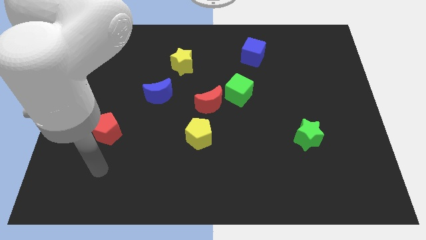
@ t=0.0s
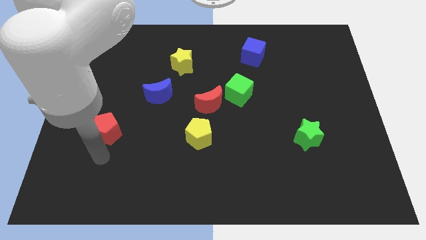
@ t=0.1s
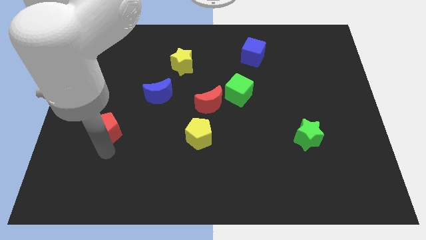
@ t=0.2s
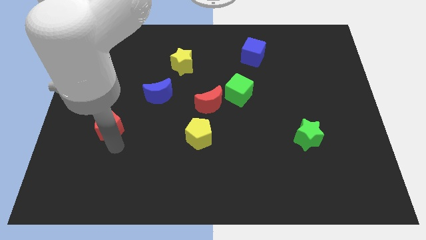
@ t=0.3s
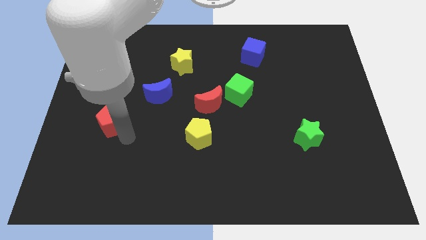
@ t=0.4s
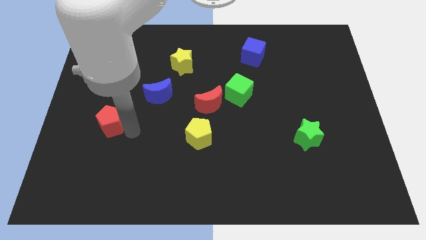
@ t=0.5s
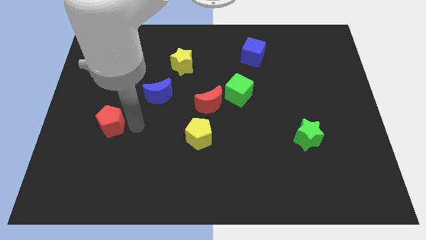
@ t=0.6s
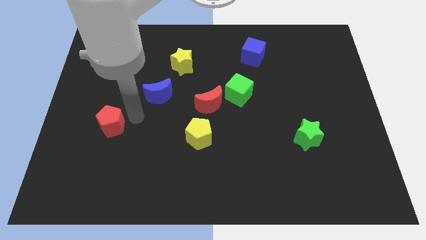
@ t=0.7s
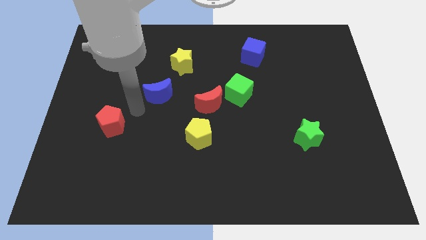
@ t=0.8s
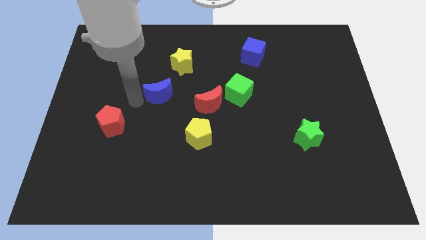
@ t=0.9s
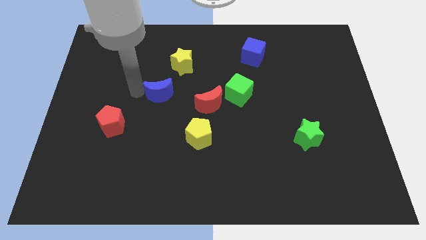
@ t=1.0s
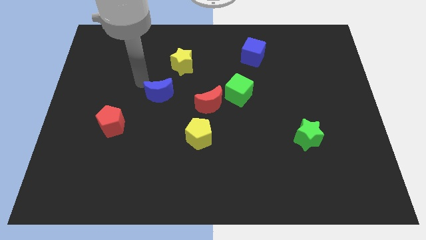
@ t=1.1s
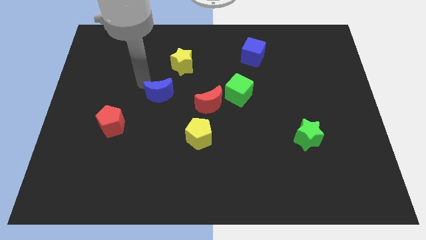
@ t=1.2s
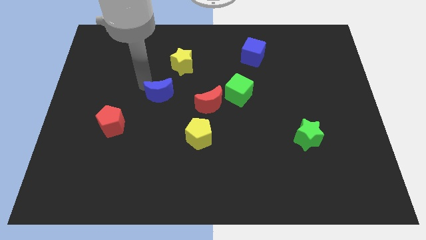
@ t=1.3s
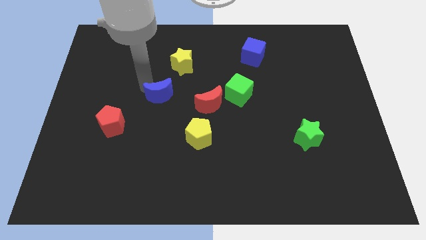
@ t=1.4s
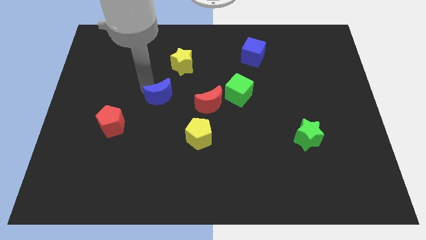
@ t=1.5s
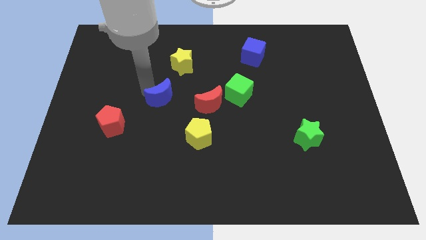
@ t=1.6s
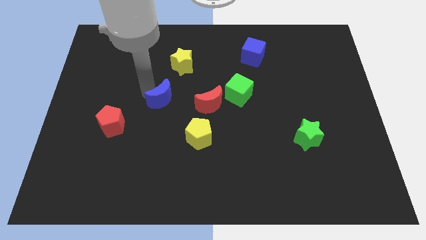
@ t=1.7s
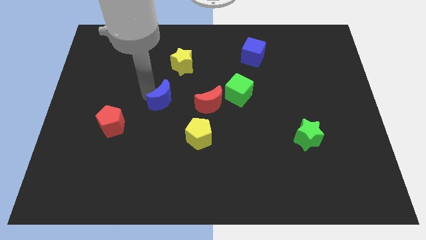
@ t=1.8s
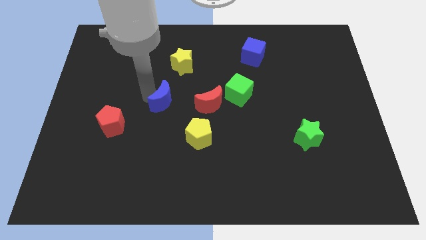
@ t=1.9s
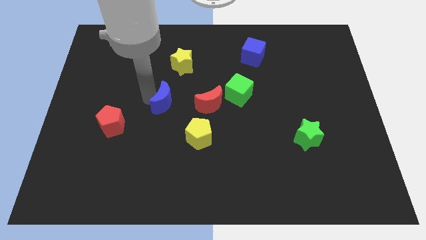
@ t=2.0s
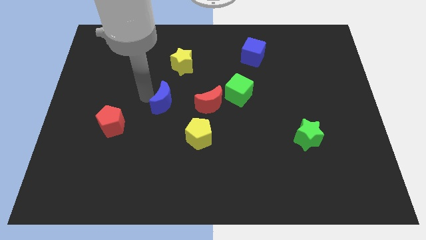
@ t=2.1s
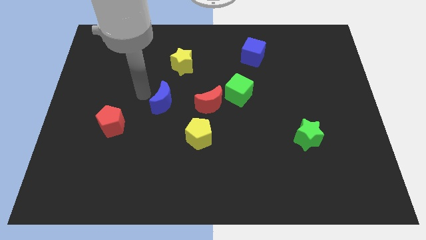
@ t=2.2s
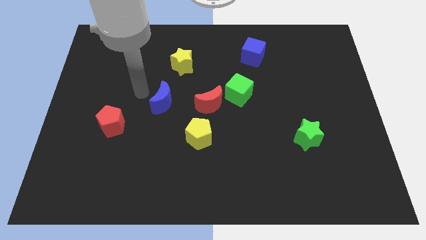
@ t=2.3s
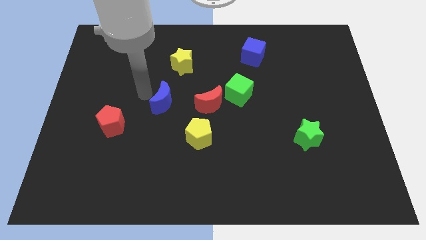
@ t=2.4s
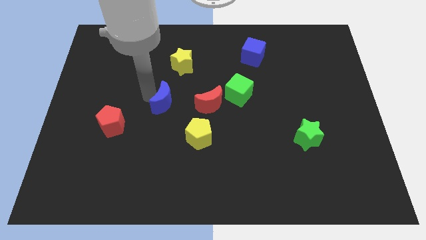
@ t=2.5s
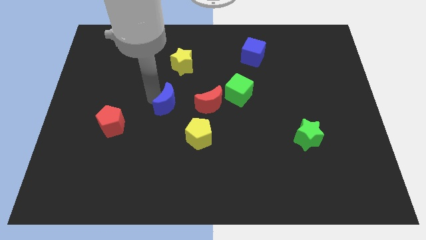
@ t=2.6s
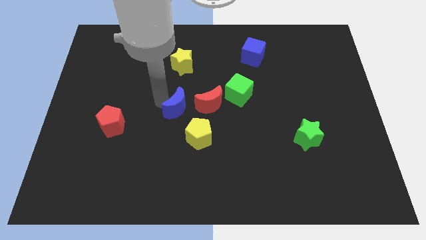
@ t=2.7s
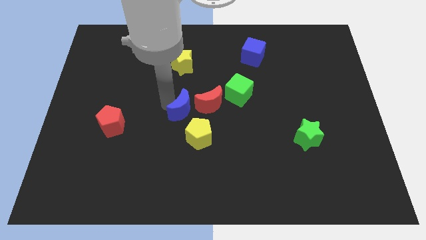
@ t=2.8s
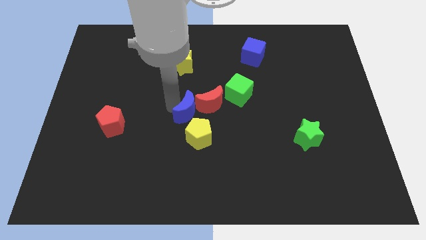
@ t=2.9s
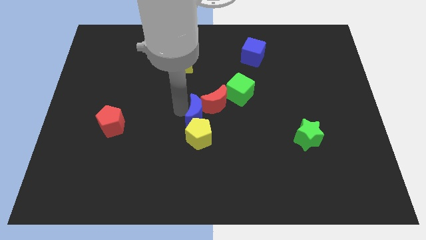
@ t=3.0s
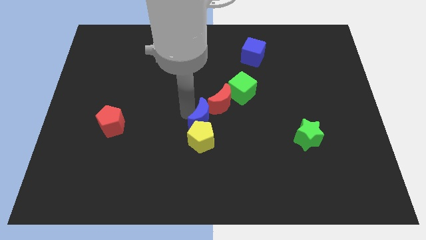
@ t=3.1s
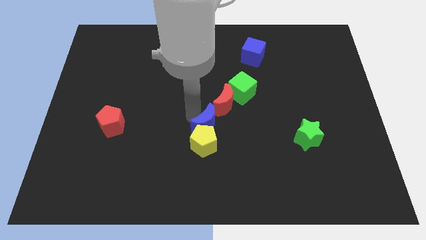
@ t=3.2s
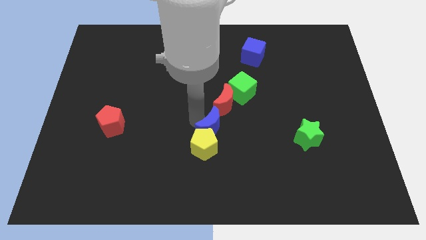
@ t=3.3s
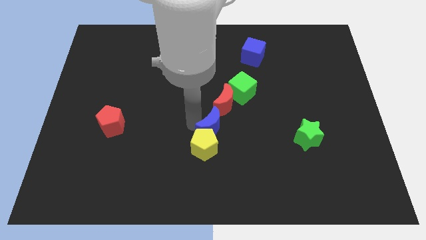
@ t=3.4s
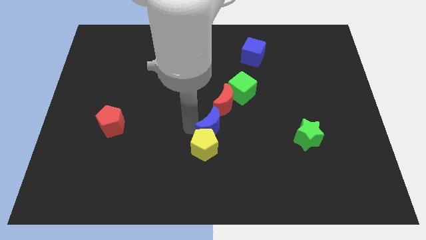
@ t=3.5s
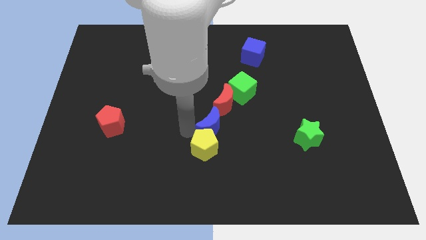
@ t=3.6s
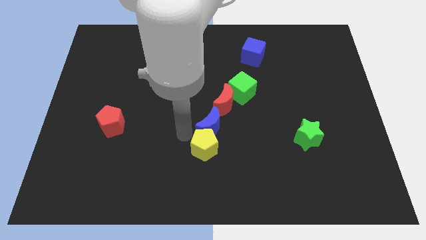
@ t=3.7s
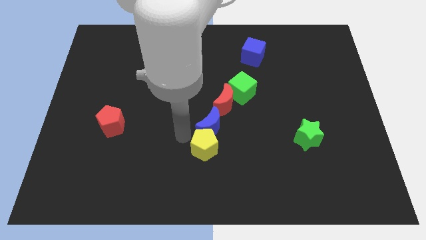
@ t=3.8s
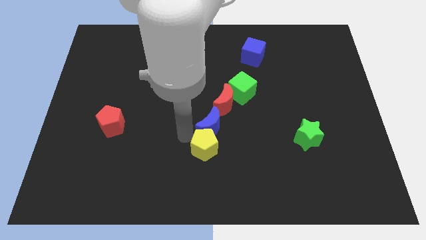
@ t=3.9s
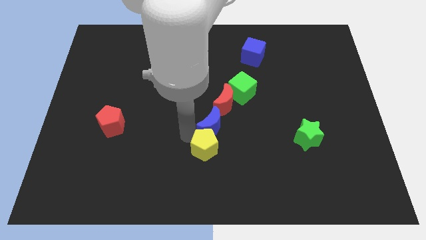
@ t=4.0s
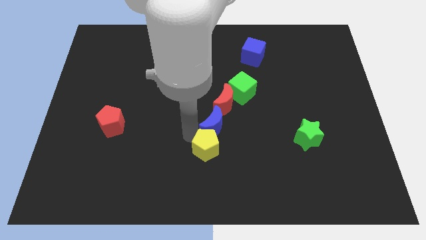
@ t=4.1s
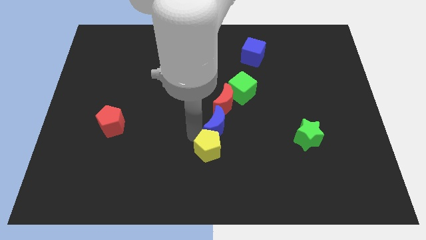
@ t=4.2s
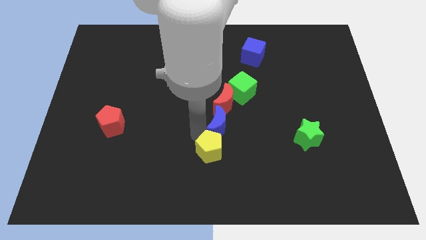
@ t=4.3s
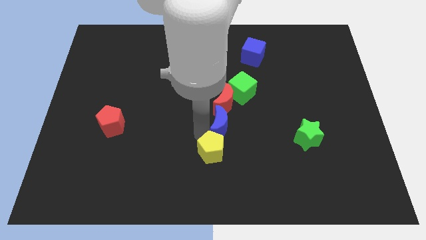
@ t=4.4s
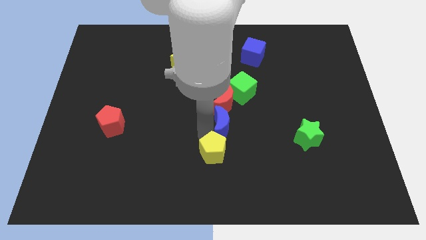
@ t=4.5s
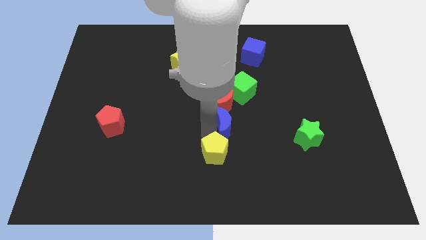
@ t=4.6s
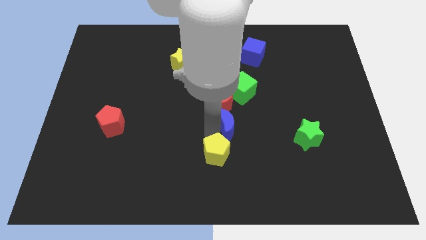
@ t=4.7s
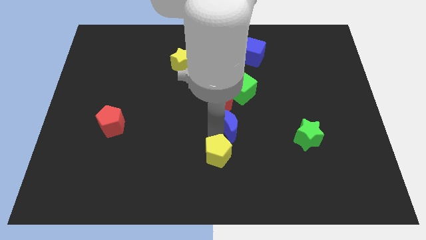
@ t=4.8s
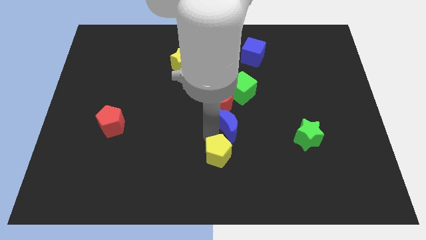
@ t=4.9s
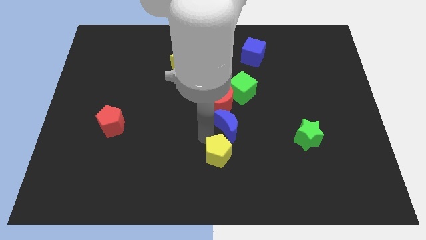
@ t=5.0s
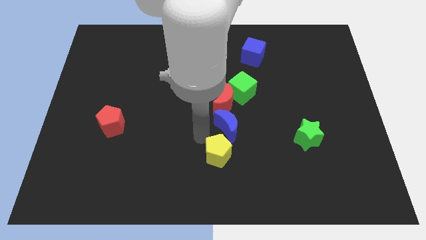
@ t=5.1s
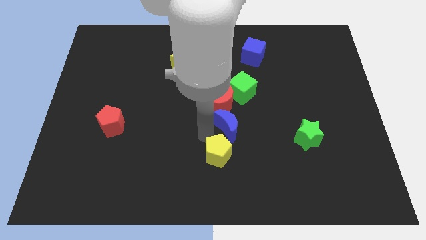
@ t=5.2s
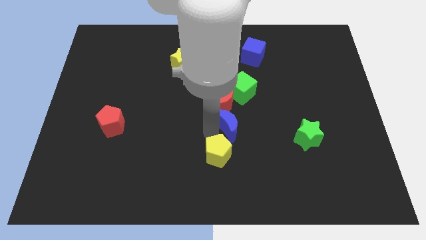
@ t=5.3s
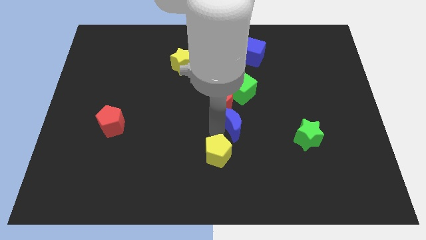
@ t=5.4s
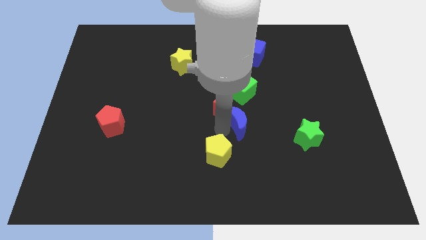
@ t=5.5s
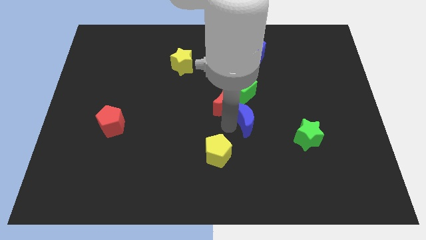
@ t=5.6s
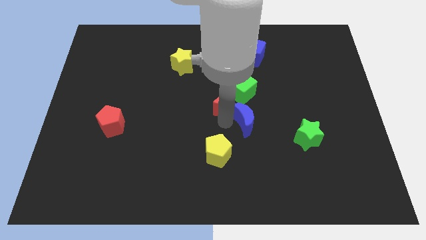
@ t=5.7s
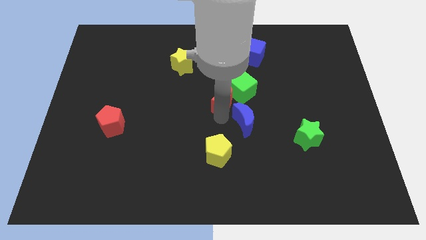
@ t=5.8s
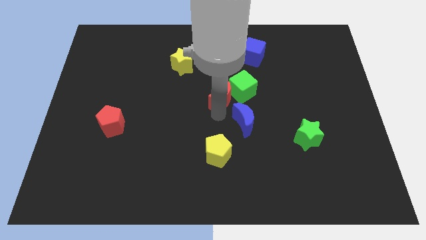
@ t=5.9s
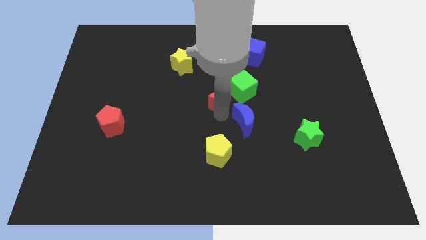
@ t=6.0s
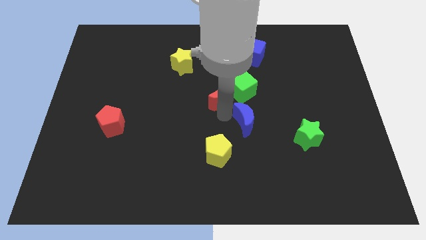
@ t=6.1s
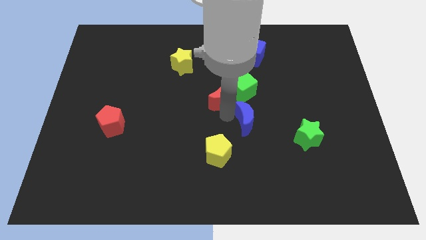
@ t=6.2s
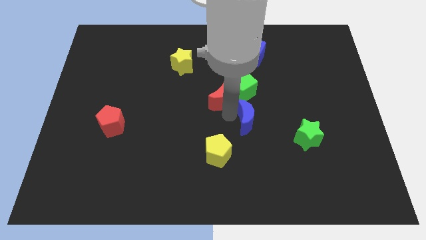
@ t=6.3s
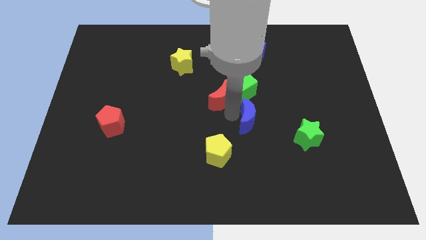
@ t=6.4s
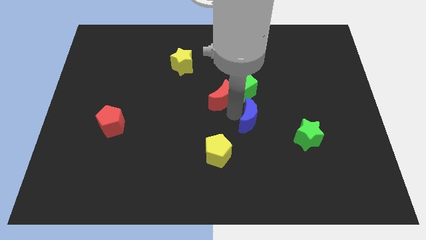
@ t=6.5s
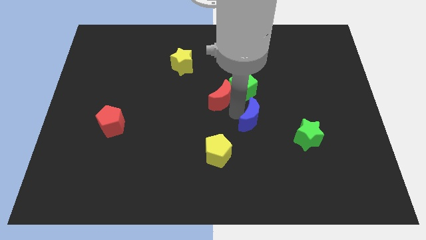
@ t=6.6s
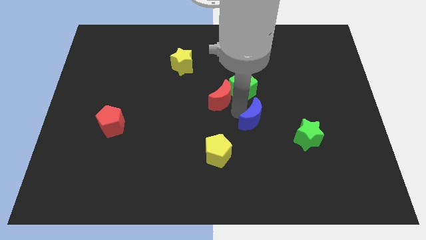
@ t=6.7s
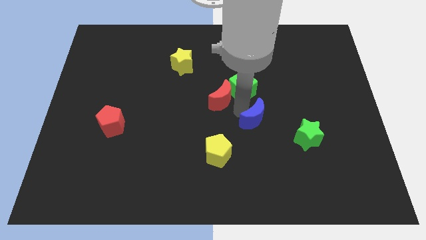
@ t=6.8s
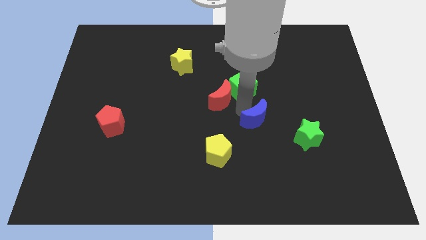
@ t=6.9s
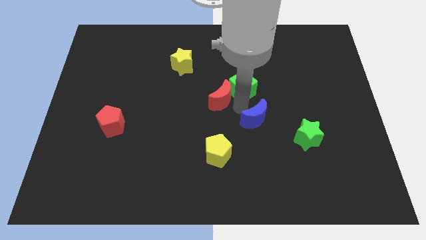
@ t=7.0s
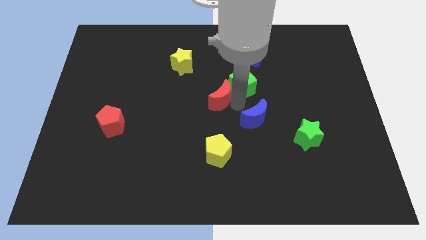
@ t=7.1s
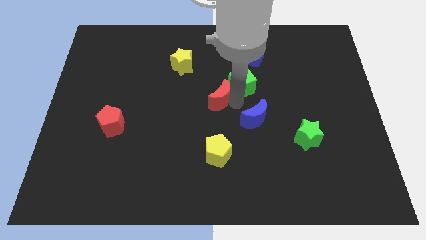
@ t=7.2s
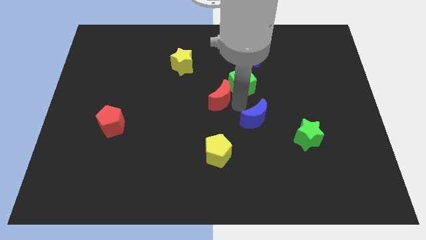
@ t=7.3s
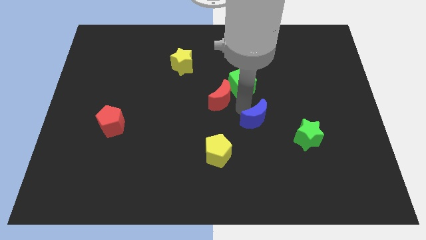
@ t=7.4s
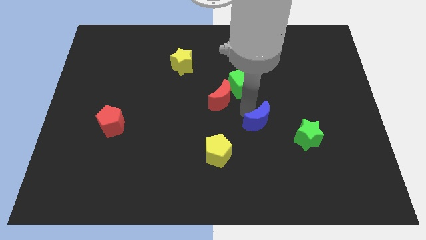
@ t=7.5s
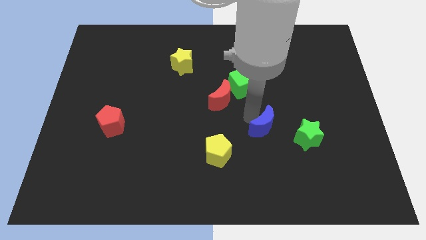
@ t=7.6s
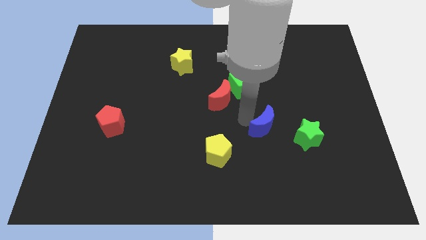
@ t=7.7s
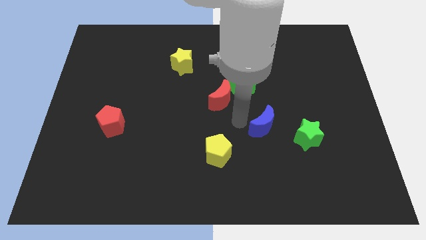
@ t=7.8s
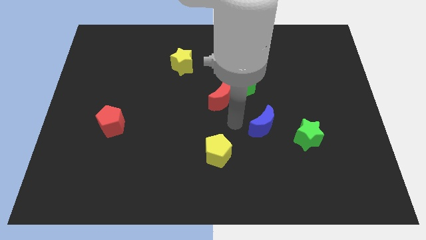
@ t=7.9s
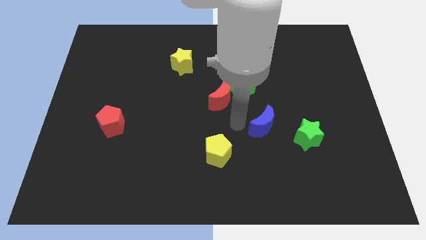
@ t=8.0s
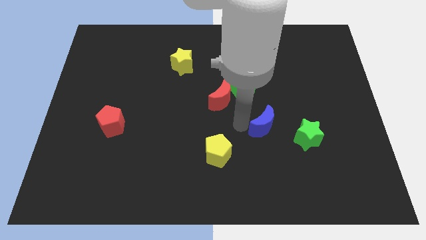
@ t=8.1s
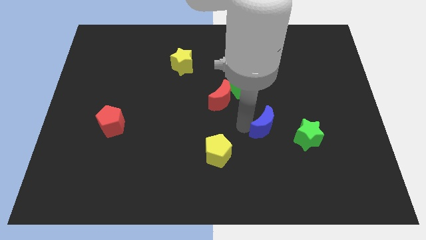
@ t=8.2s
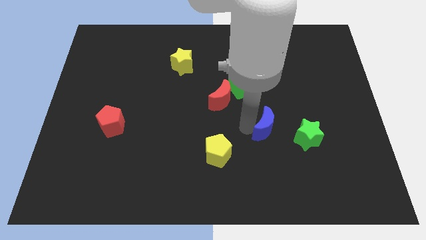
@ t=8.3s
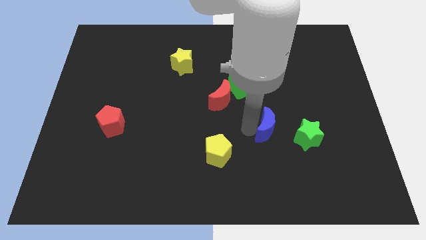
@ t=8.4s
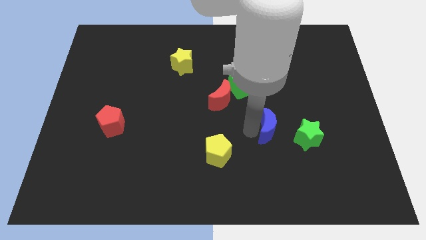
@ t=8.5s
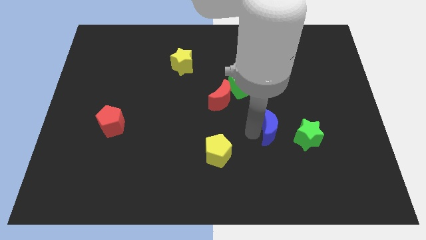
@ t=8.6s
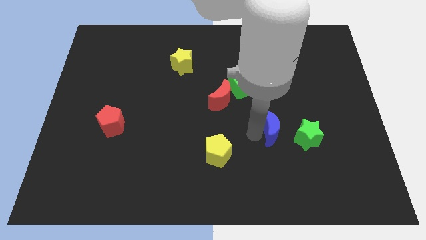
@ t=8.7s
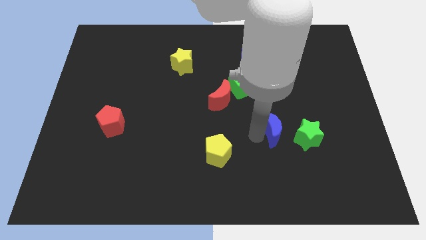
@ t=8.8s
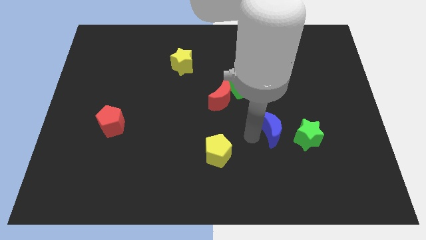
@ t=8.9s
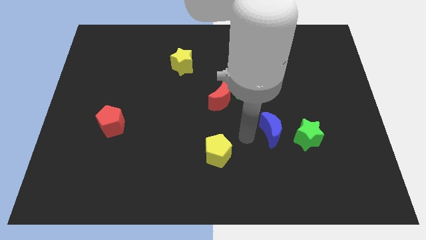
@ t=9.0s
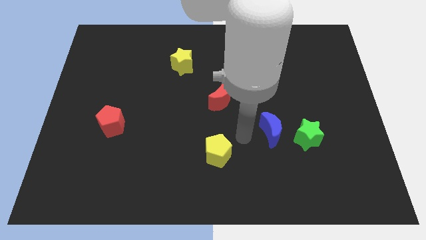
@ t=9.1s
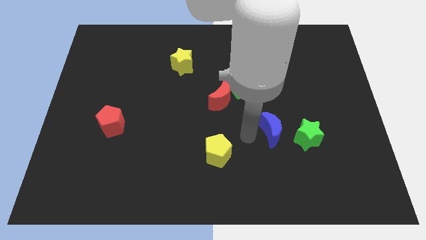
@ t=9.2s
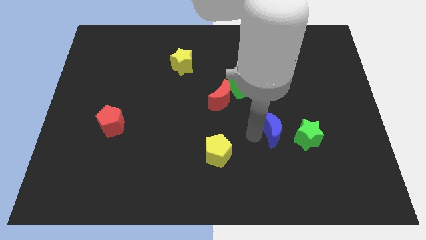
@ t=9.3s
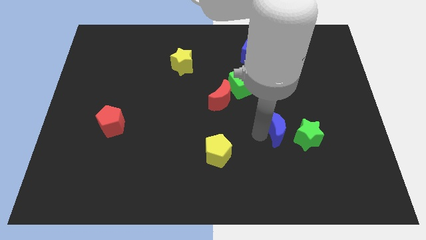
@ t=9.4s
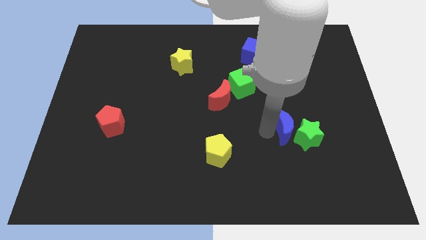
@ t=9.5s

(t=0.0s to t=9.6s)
move the blue moon towards the green star
